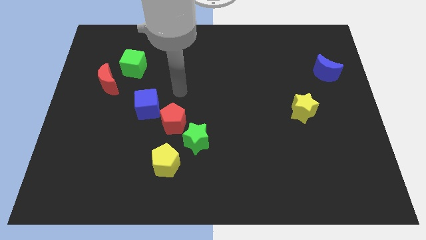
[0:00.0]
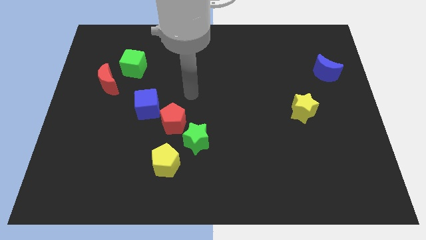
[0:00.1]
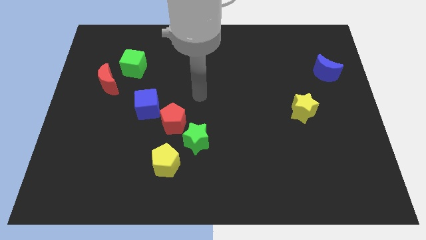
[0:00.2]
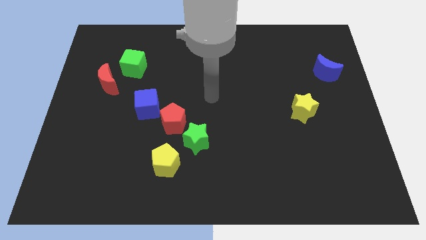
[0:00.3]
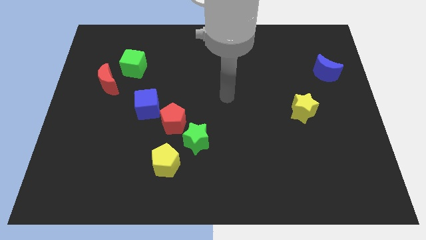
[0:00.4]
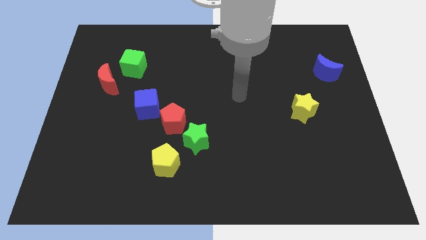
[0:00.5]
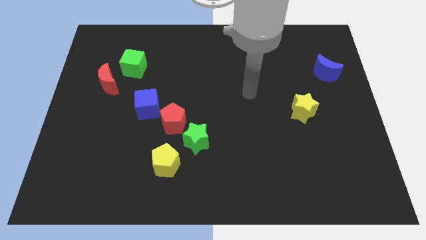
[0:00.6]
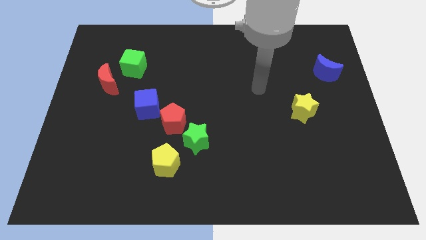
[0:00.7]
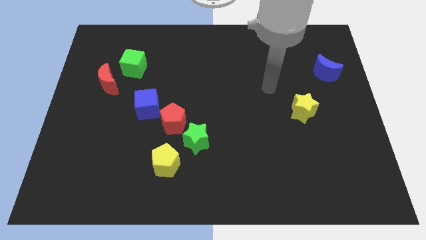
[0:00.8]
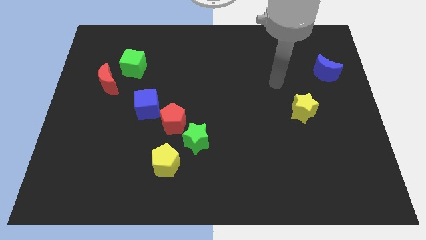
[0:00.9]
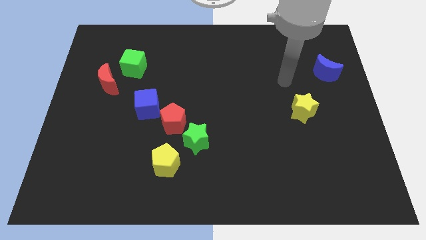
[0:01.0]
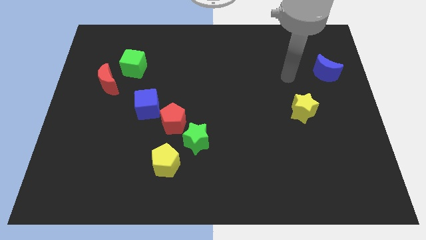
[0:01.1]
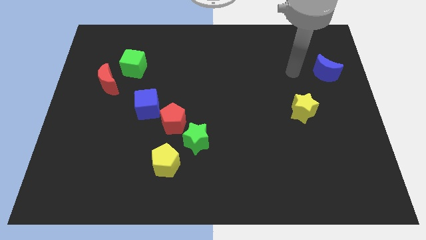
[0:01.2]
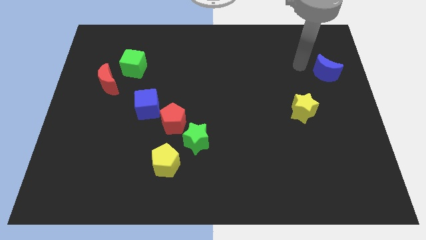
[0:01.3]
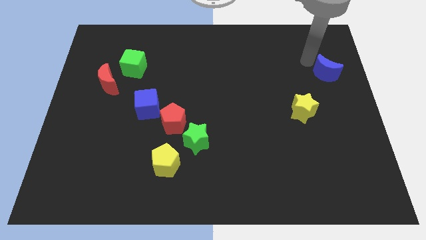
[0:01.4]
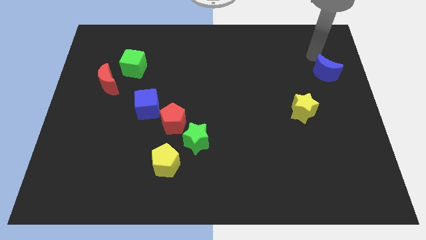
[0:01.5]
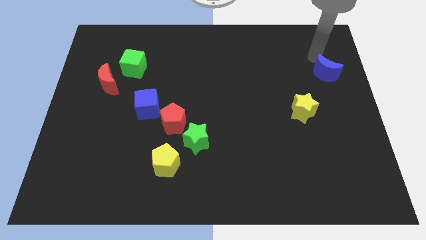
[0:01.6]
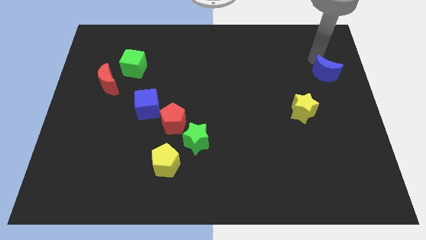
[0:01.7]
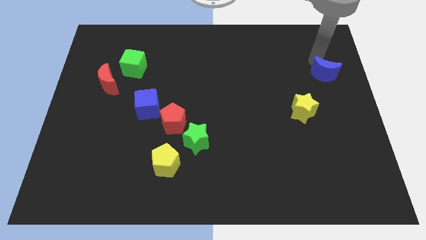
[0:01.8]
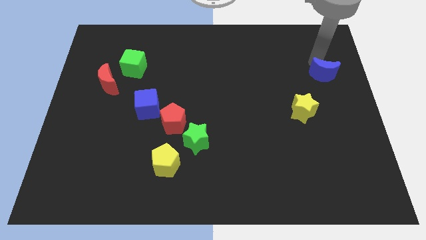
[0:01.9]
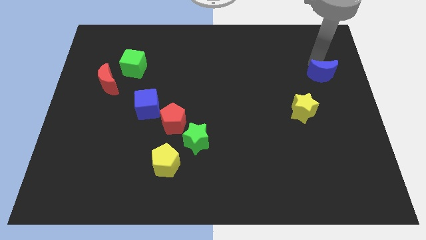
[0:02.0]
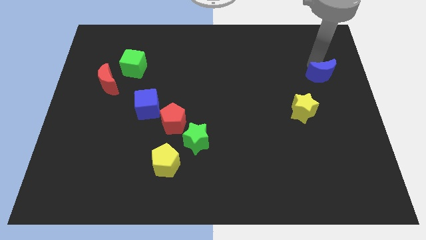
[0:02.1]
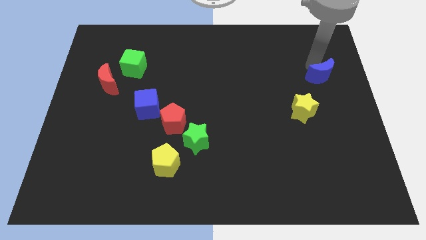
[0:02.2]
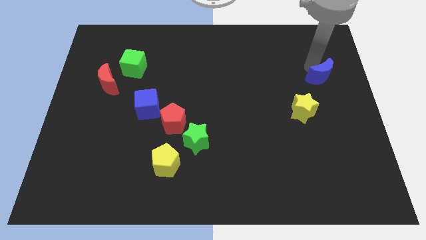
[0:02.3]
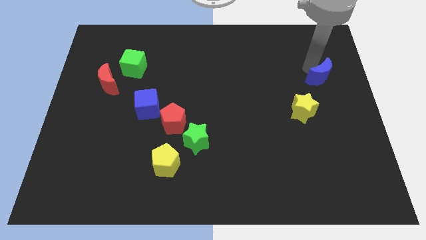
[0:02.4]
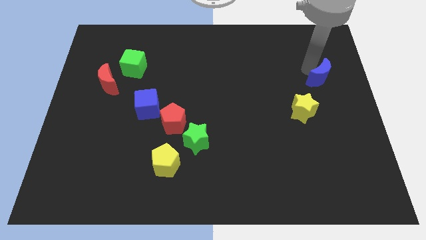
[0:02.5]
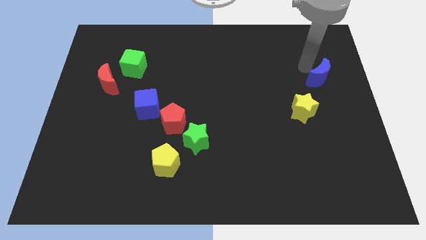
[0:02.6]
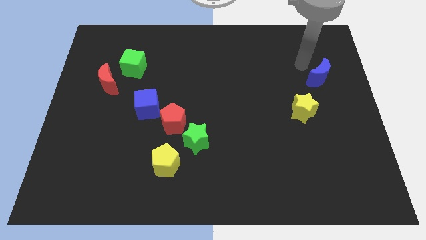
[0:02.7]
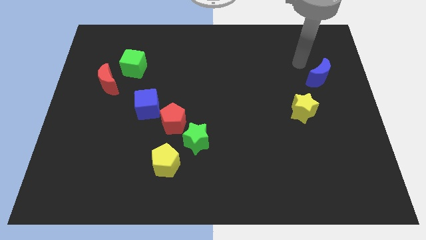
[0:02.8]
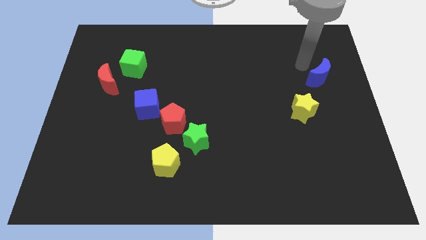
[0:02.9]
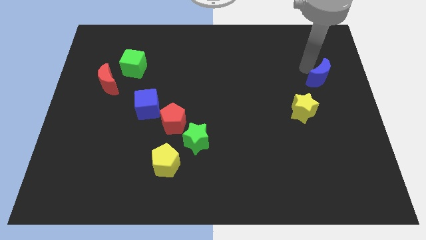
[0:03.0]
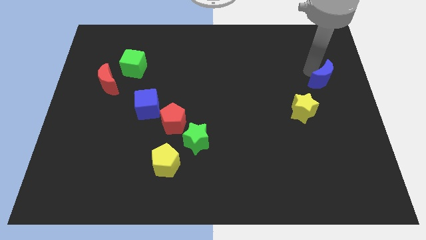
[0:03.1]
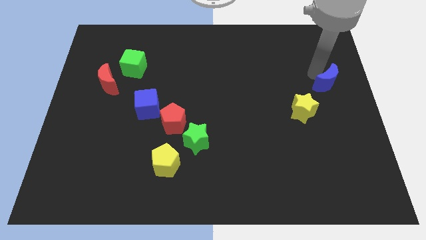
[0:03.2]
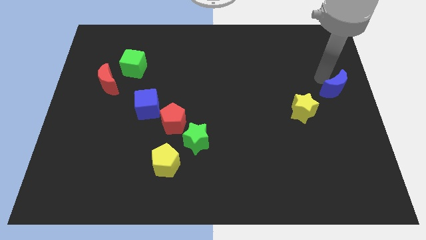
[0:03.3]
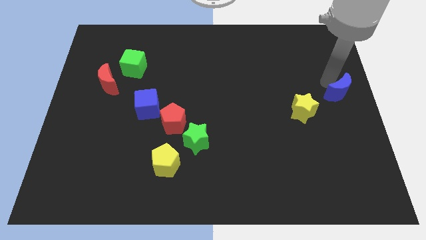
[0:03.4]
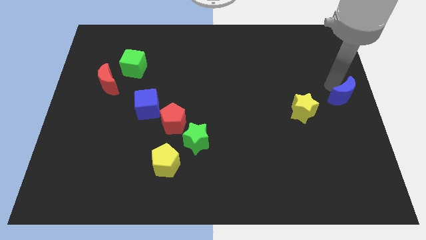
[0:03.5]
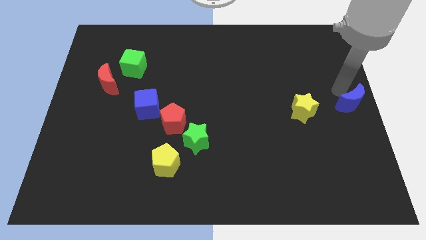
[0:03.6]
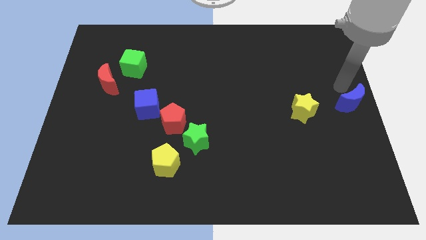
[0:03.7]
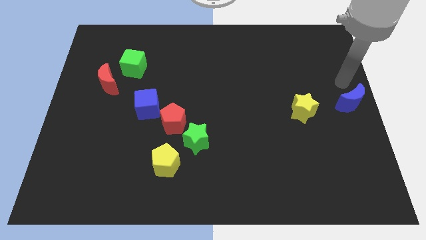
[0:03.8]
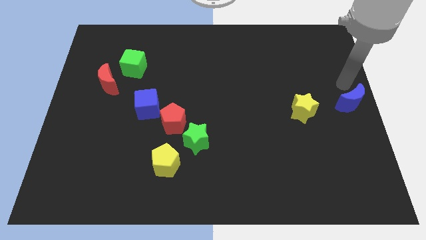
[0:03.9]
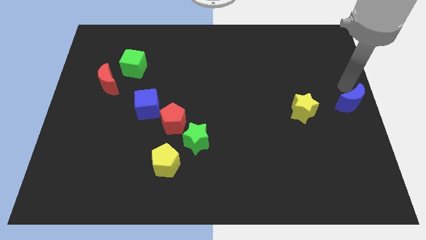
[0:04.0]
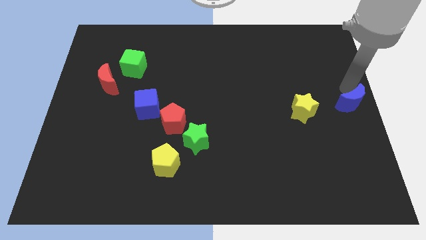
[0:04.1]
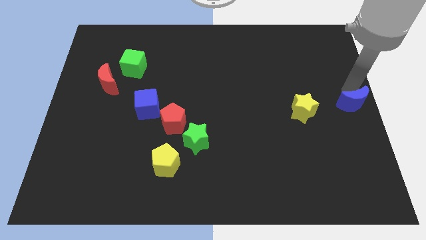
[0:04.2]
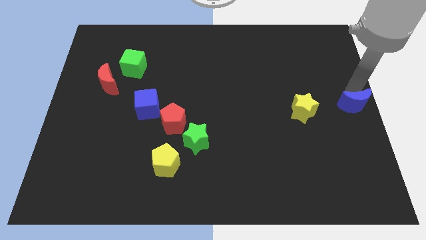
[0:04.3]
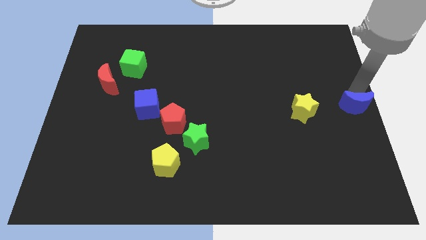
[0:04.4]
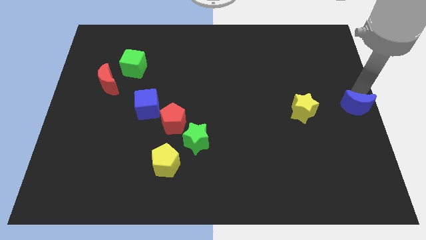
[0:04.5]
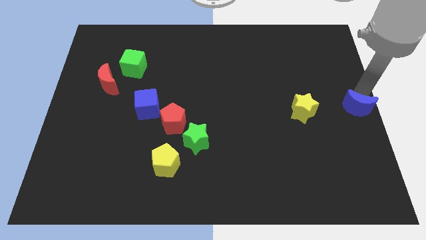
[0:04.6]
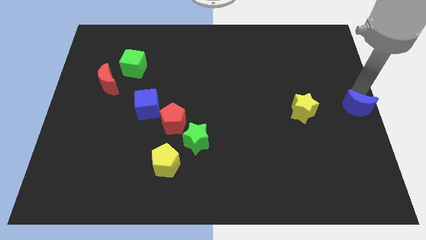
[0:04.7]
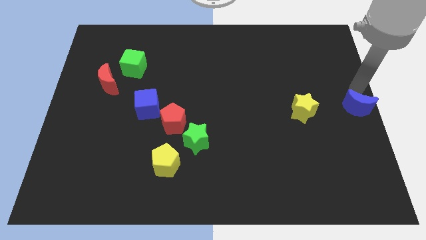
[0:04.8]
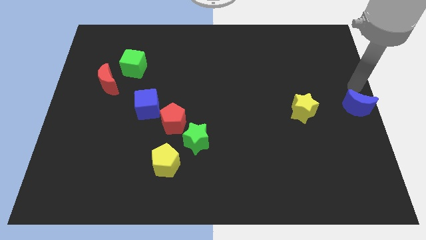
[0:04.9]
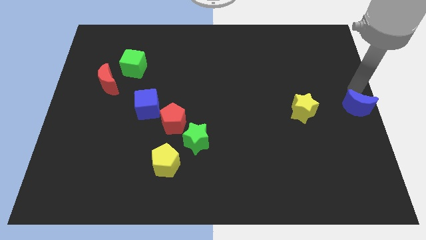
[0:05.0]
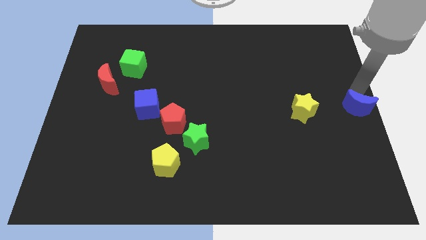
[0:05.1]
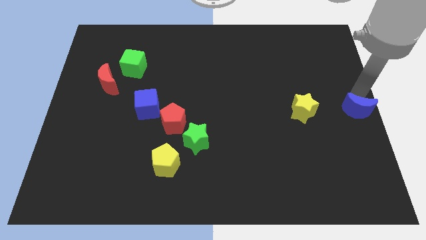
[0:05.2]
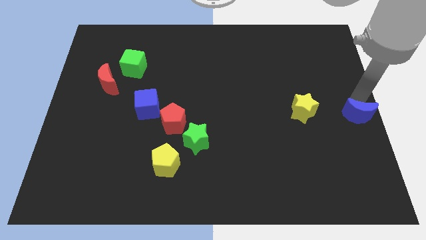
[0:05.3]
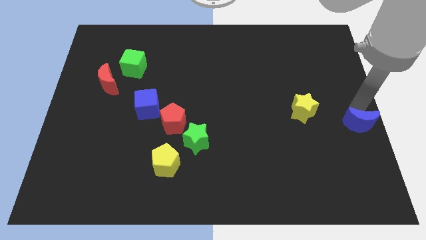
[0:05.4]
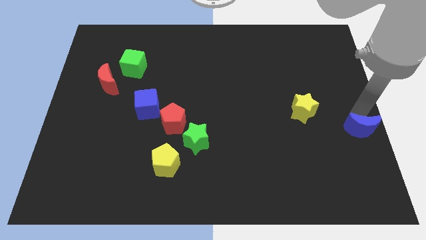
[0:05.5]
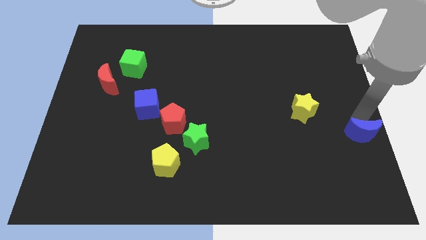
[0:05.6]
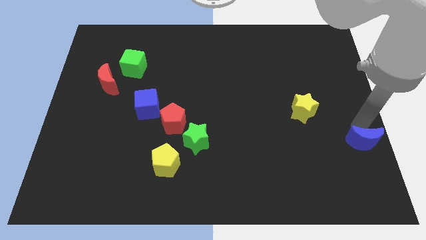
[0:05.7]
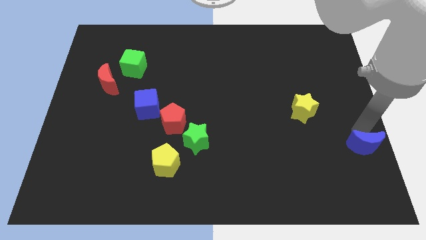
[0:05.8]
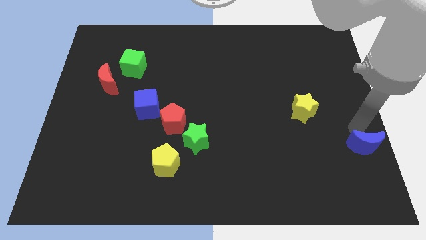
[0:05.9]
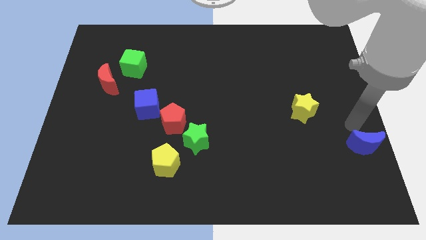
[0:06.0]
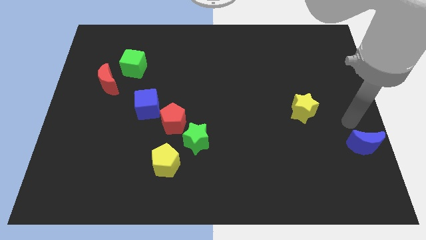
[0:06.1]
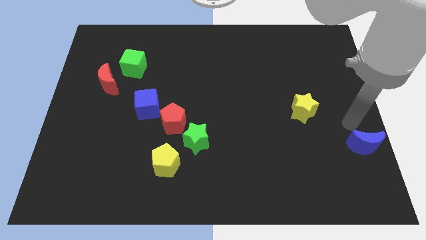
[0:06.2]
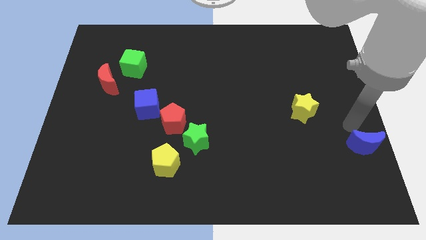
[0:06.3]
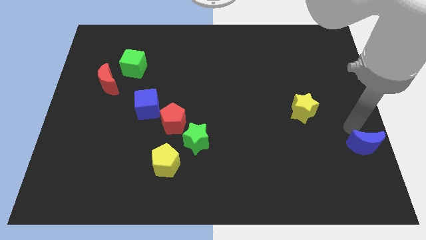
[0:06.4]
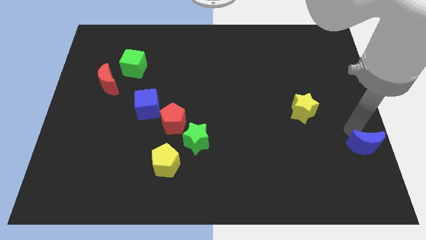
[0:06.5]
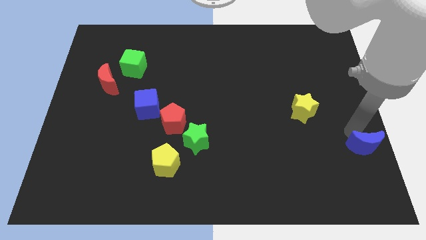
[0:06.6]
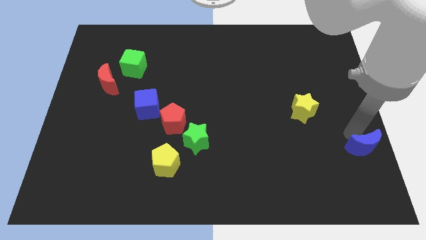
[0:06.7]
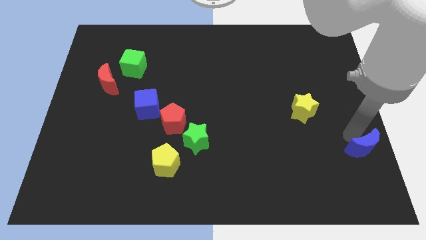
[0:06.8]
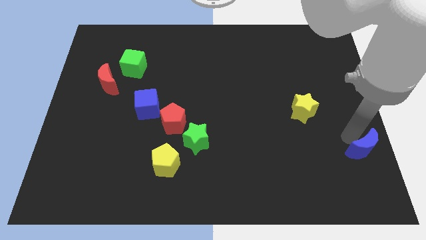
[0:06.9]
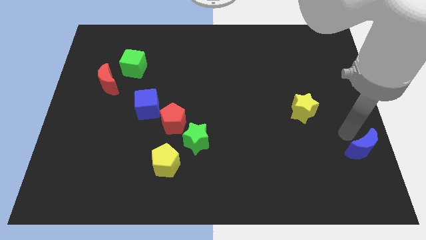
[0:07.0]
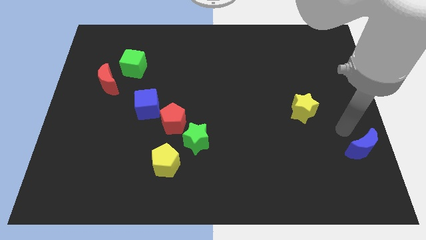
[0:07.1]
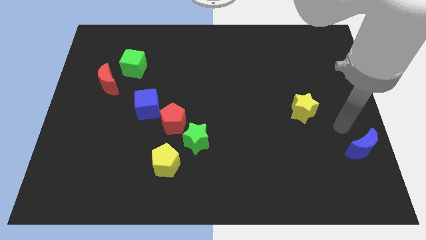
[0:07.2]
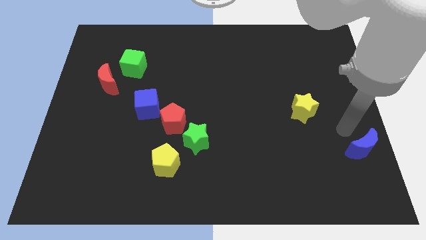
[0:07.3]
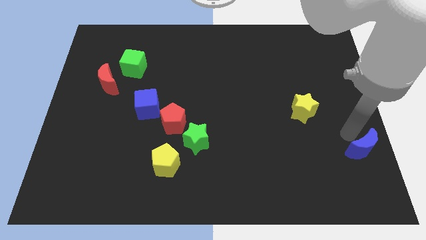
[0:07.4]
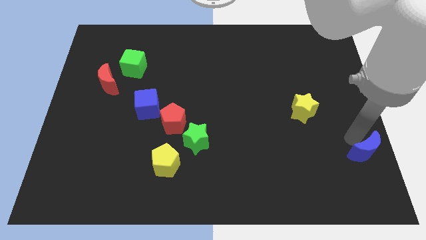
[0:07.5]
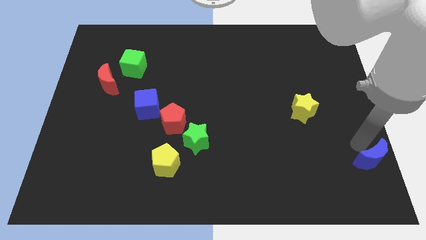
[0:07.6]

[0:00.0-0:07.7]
move the blue moon to the bottom right of the board
